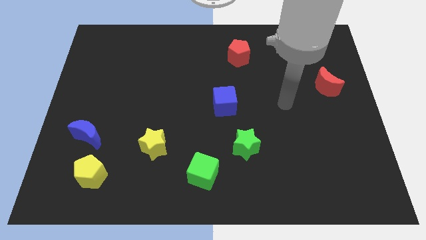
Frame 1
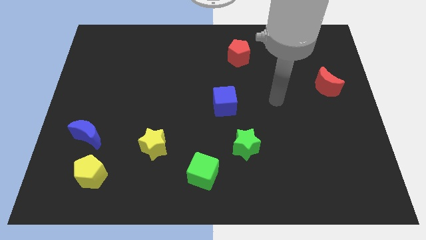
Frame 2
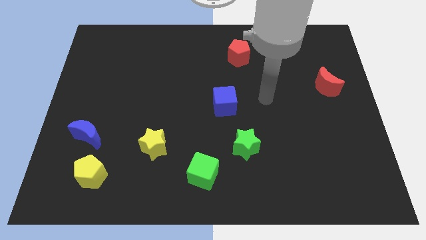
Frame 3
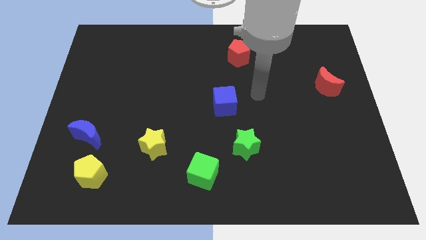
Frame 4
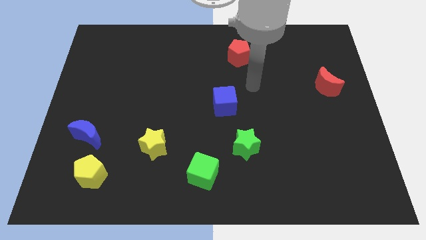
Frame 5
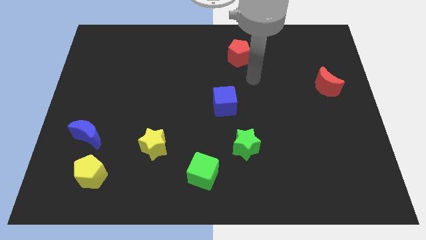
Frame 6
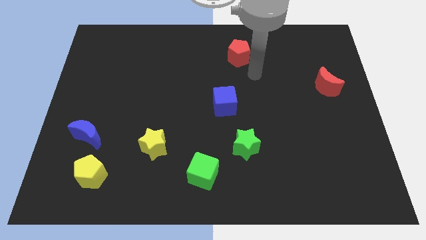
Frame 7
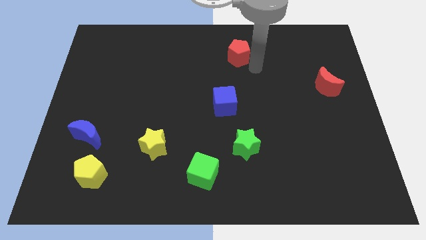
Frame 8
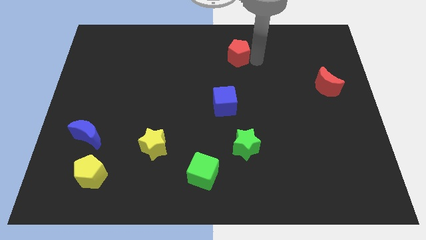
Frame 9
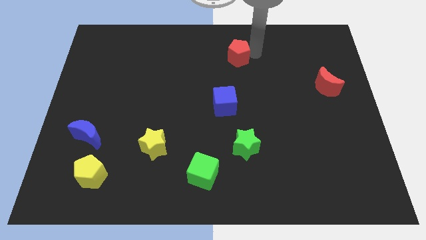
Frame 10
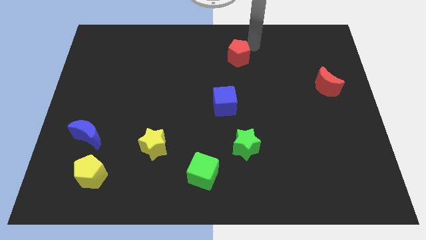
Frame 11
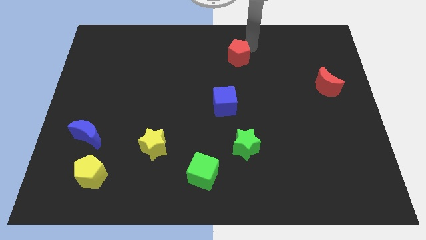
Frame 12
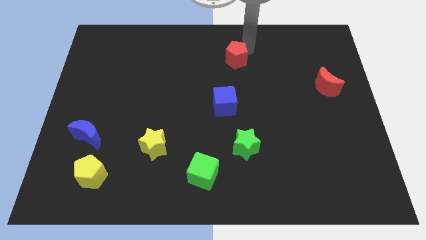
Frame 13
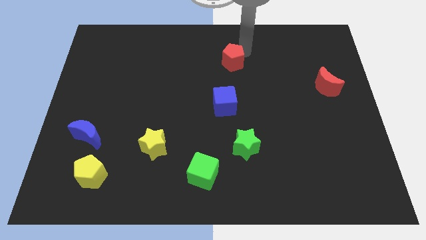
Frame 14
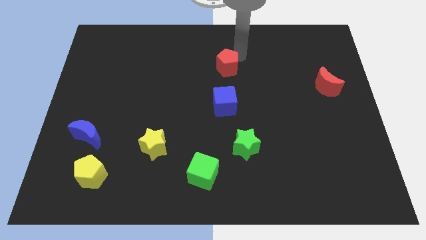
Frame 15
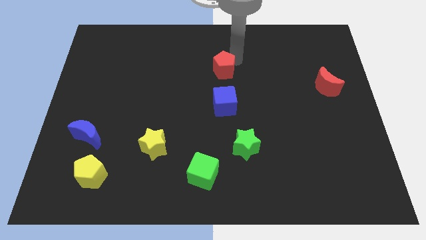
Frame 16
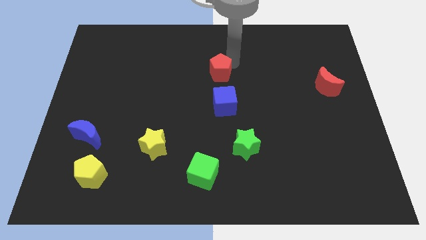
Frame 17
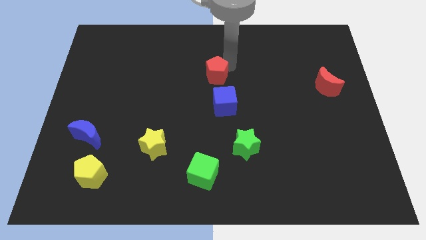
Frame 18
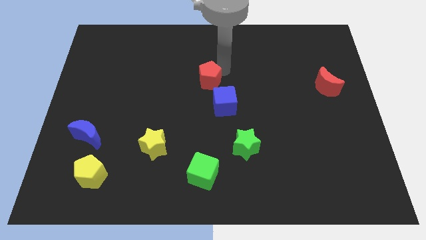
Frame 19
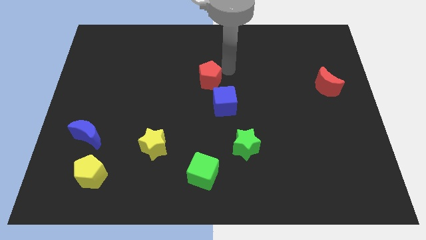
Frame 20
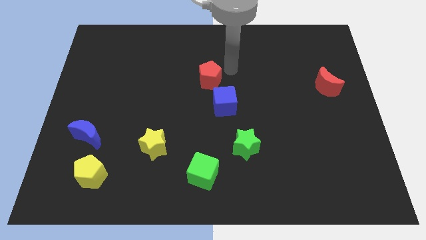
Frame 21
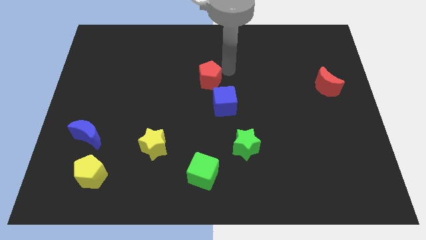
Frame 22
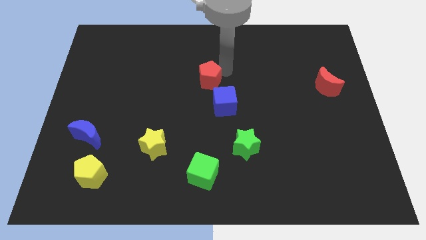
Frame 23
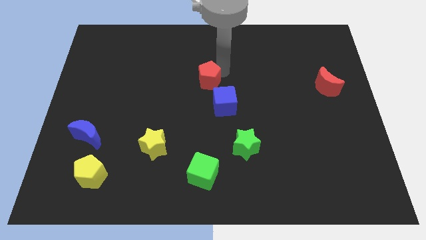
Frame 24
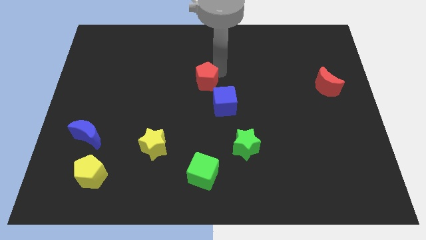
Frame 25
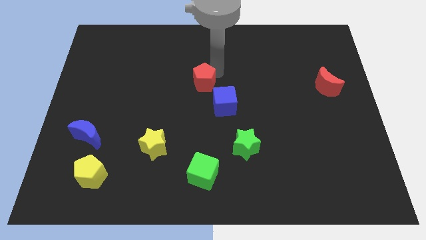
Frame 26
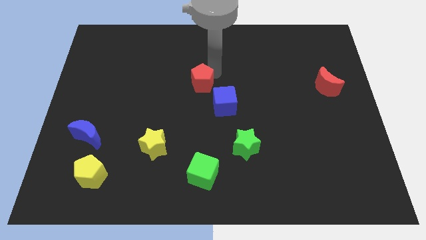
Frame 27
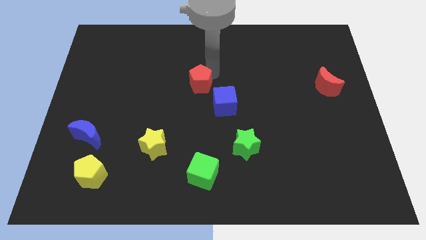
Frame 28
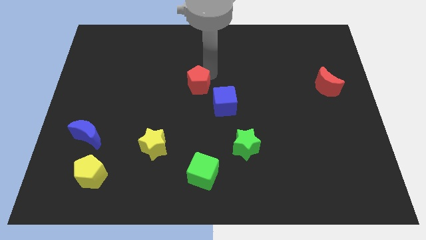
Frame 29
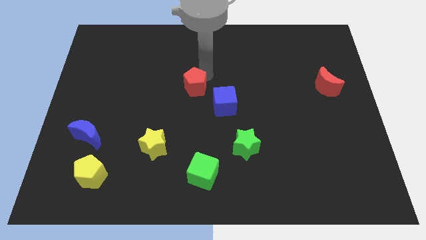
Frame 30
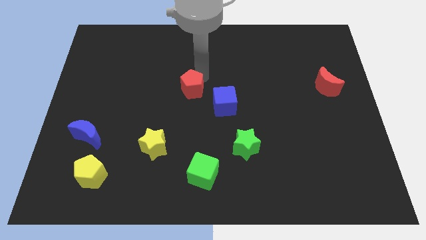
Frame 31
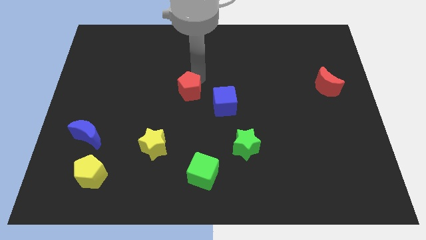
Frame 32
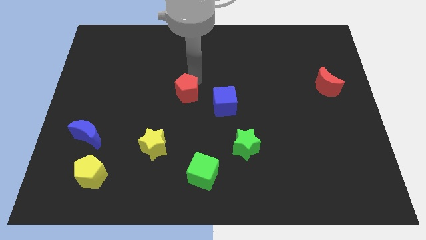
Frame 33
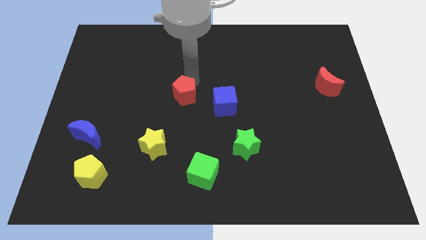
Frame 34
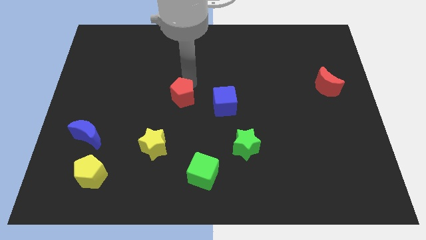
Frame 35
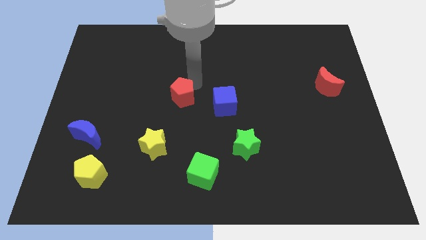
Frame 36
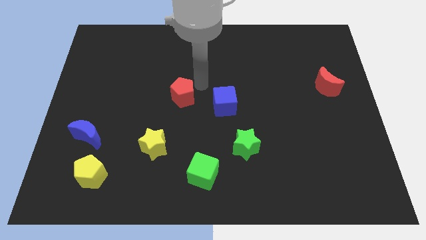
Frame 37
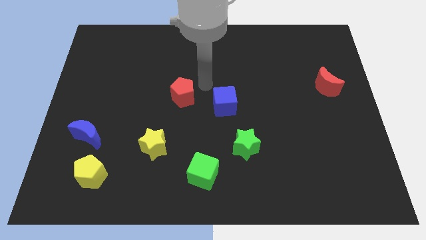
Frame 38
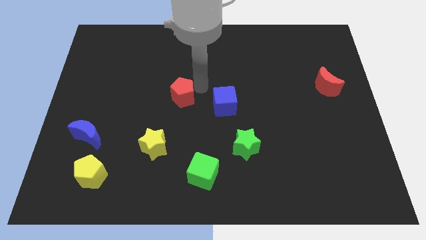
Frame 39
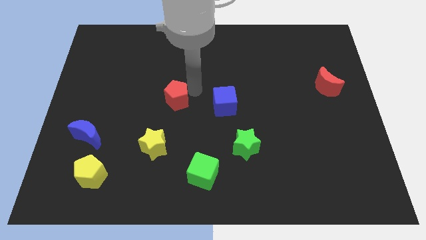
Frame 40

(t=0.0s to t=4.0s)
move the red pentagon above the yellow star

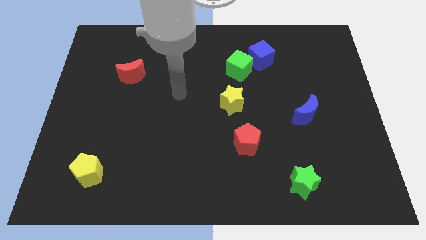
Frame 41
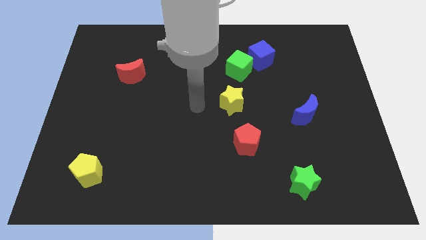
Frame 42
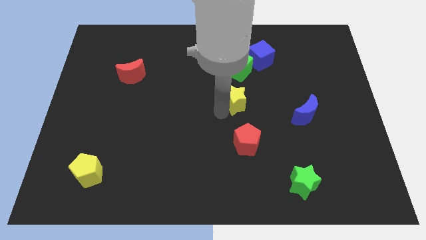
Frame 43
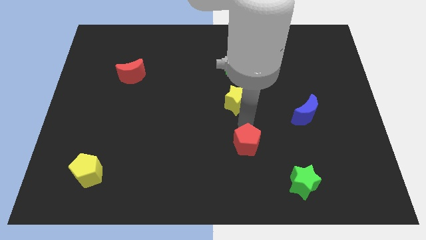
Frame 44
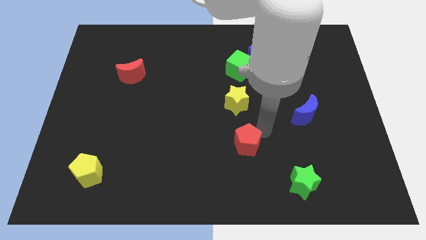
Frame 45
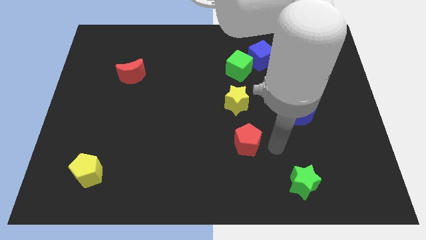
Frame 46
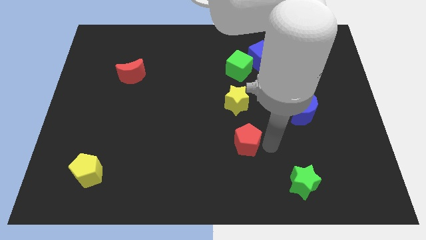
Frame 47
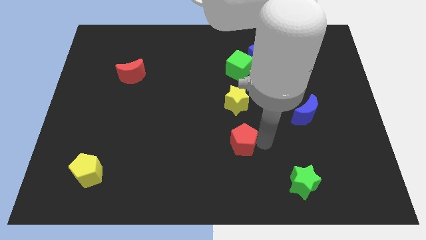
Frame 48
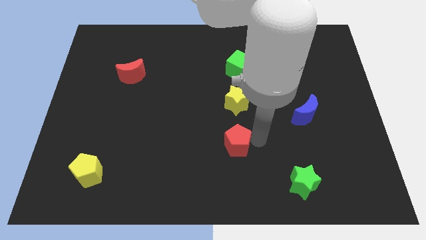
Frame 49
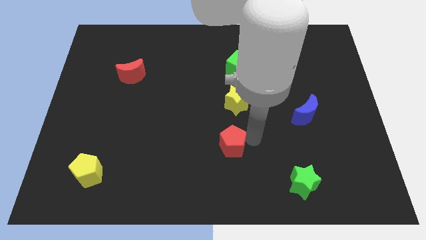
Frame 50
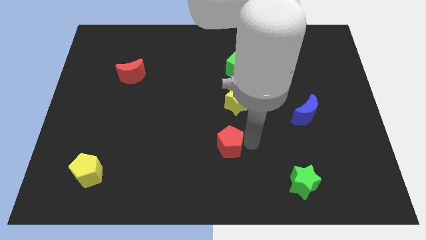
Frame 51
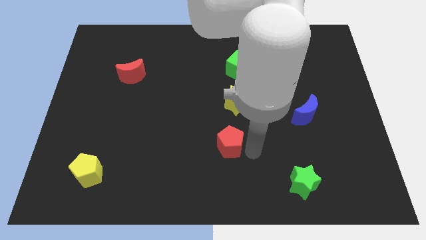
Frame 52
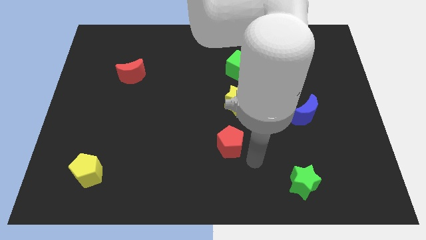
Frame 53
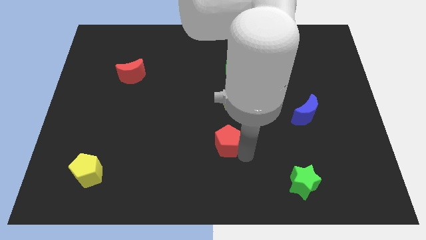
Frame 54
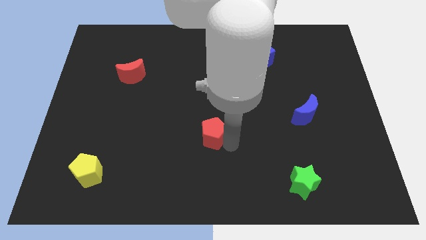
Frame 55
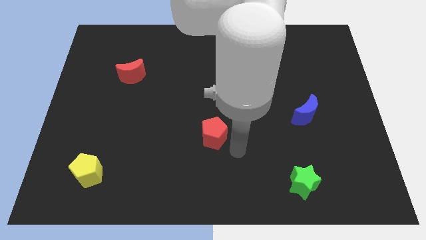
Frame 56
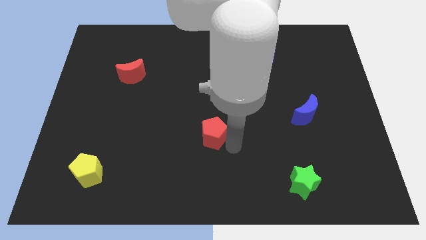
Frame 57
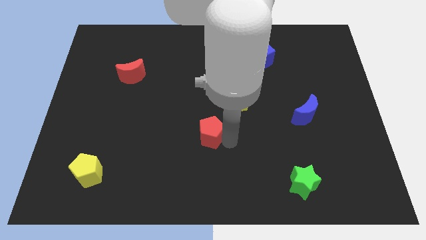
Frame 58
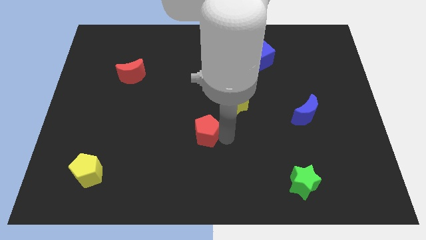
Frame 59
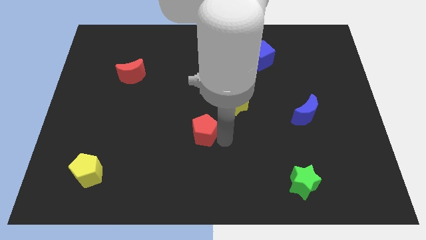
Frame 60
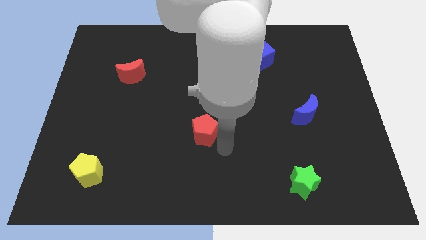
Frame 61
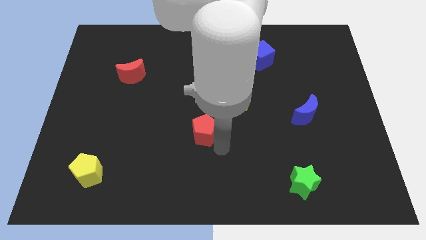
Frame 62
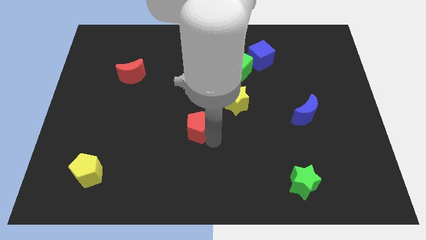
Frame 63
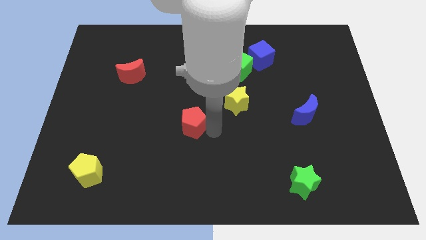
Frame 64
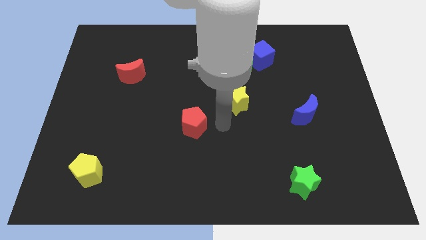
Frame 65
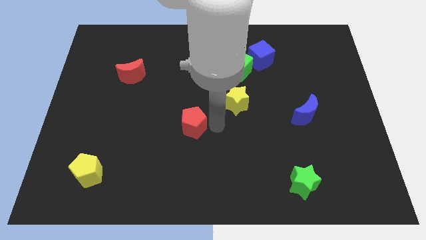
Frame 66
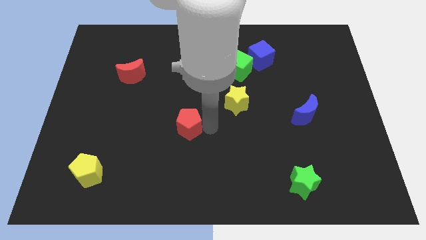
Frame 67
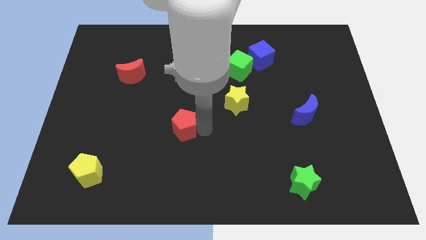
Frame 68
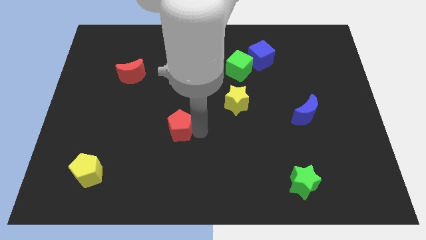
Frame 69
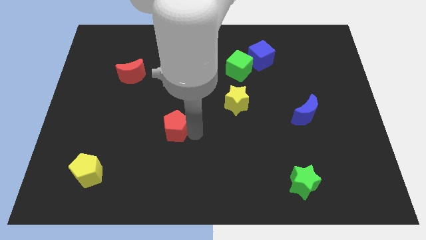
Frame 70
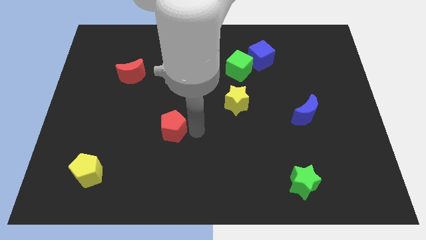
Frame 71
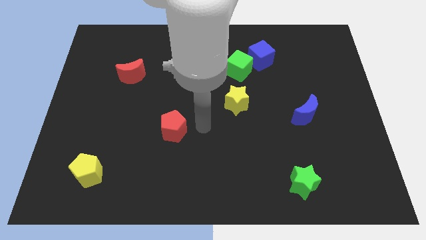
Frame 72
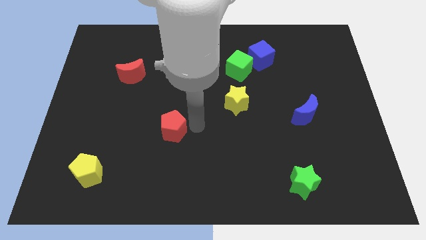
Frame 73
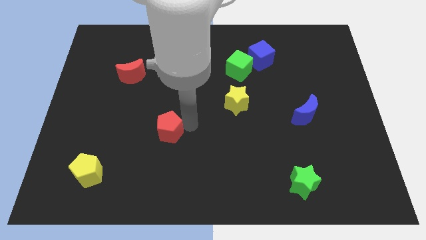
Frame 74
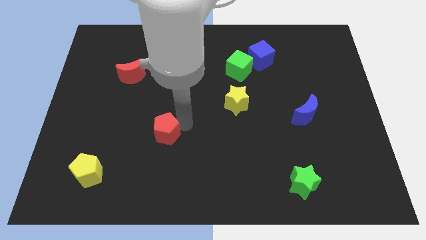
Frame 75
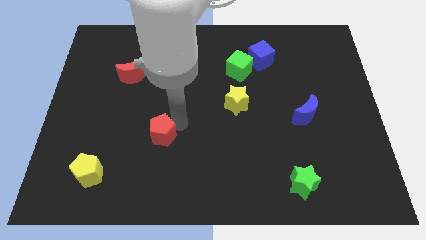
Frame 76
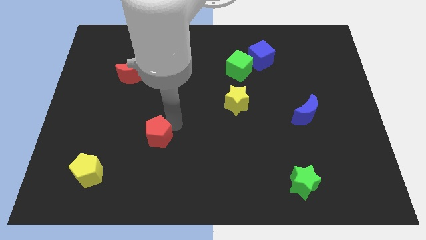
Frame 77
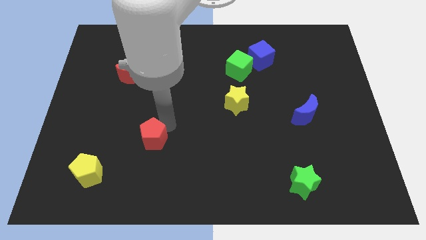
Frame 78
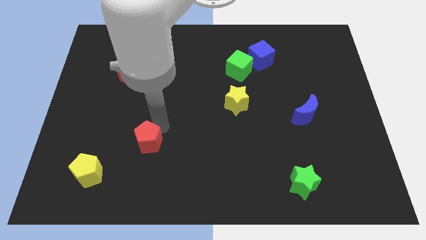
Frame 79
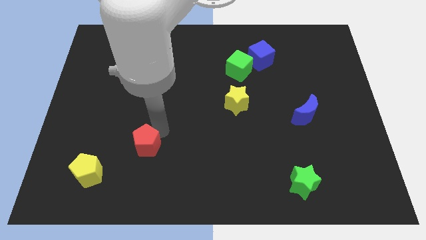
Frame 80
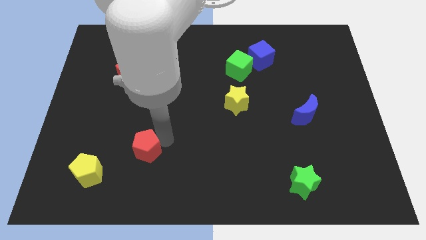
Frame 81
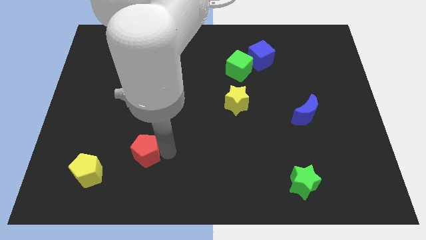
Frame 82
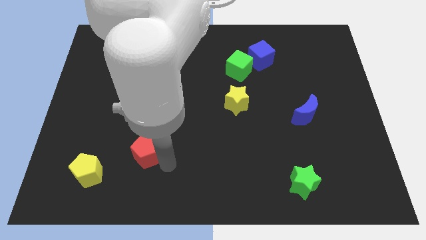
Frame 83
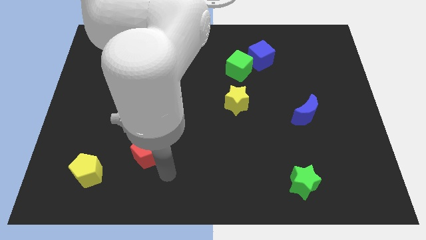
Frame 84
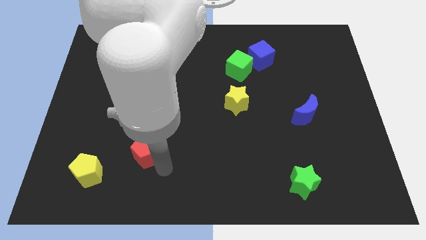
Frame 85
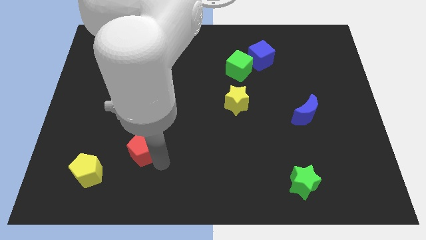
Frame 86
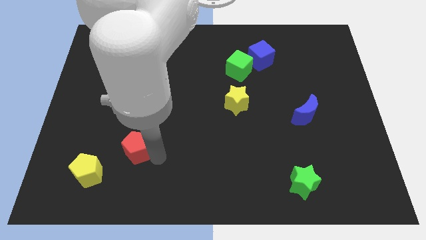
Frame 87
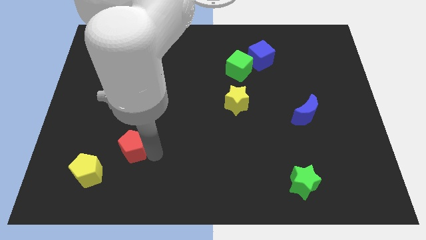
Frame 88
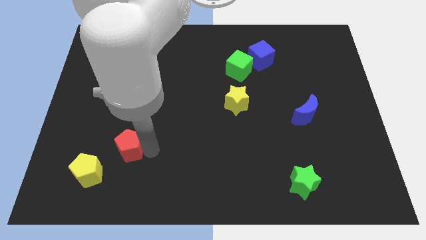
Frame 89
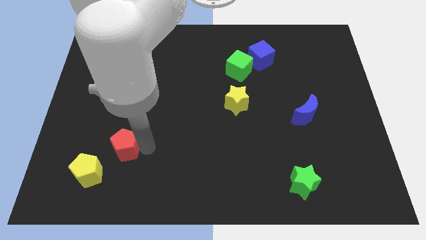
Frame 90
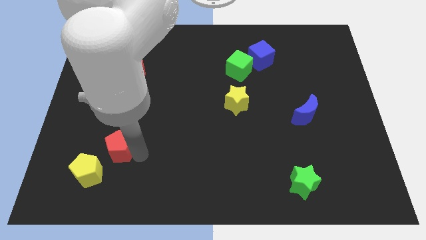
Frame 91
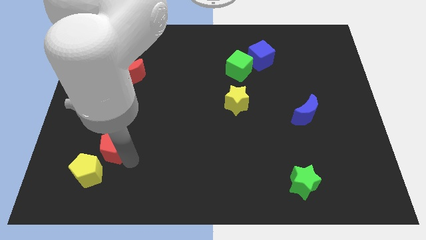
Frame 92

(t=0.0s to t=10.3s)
slide the red pentagon above the yellow pentagon
